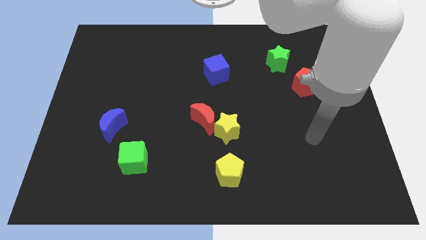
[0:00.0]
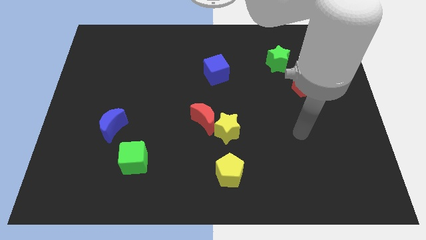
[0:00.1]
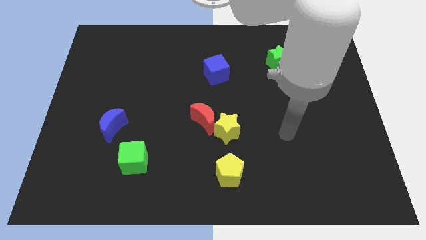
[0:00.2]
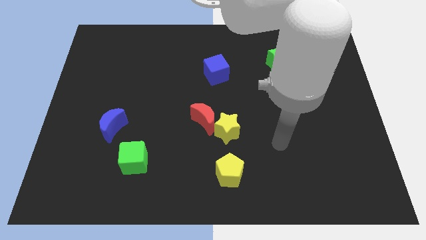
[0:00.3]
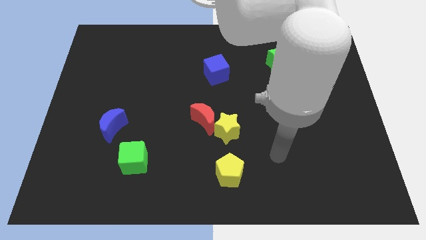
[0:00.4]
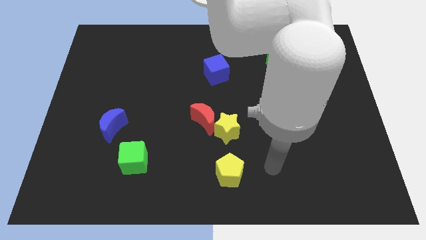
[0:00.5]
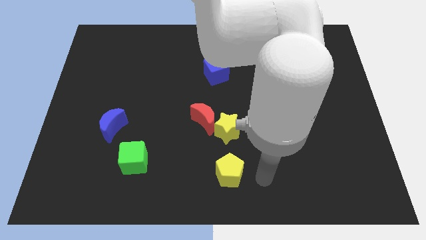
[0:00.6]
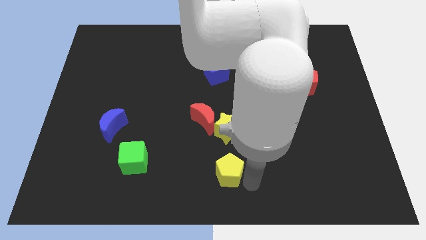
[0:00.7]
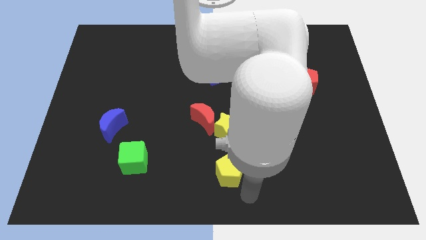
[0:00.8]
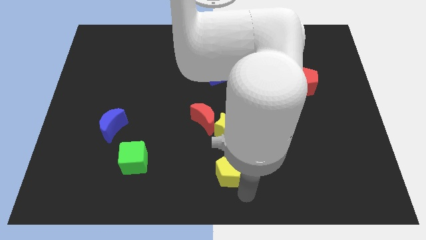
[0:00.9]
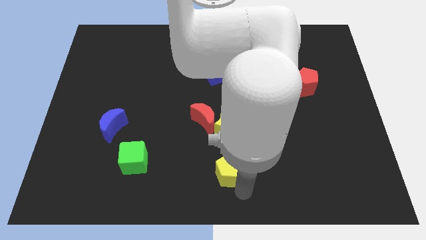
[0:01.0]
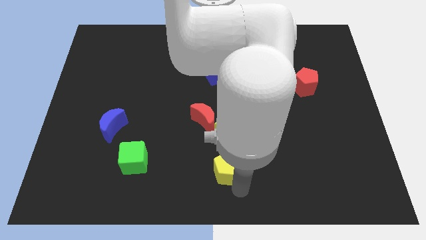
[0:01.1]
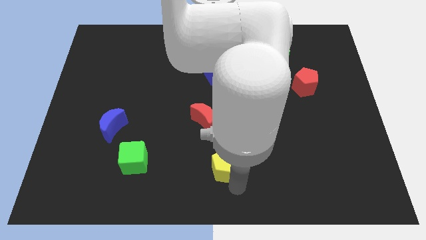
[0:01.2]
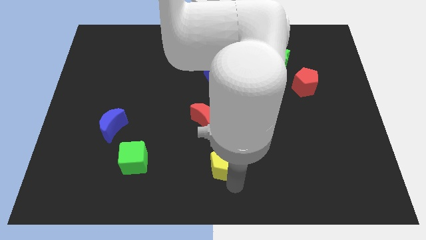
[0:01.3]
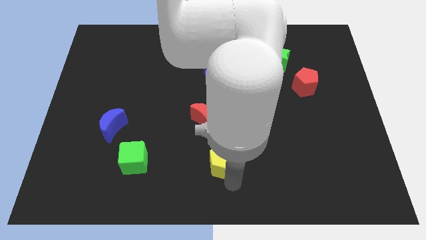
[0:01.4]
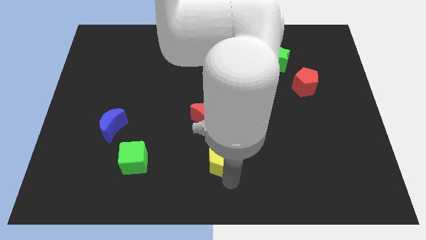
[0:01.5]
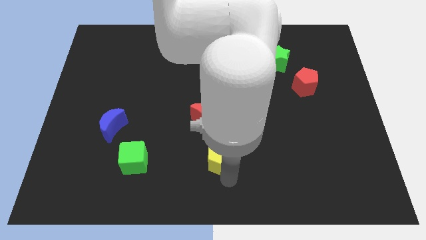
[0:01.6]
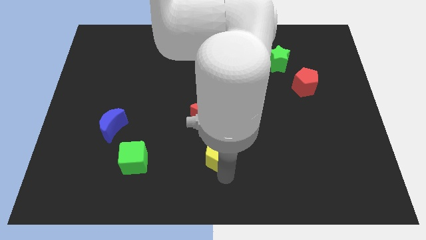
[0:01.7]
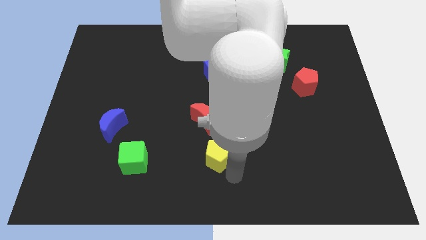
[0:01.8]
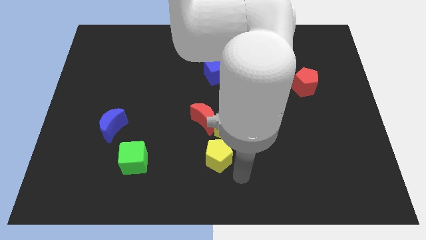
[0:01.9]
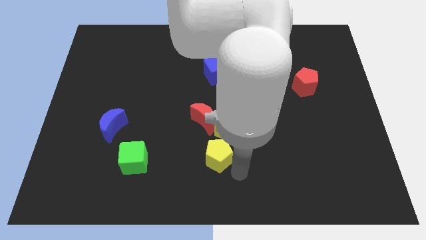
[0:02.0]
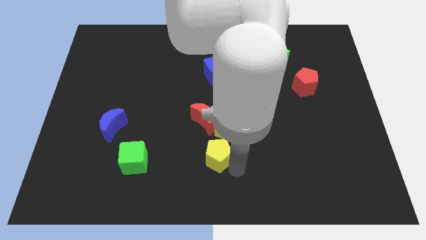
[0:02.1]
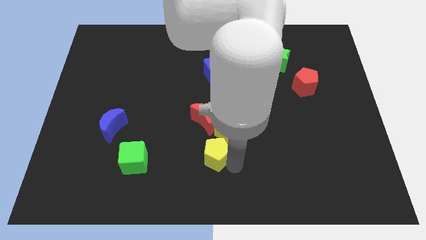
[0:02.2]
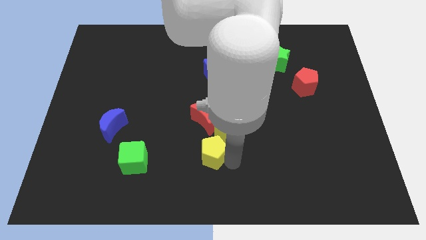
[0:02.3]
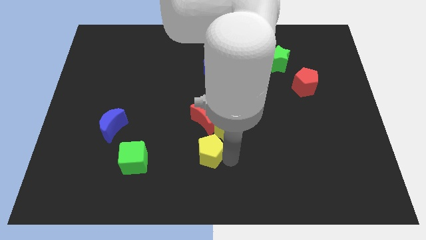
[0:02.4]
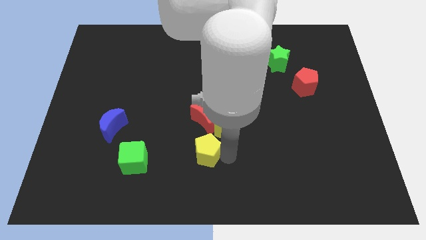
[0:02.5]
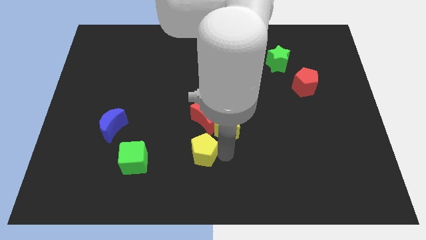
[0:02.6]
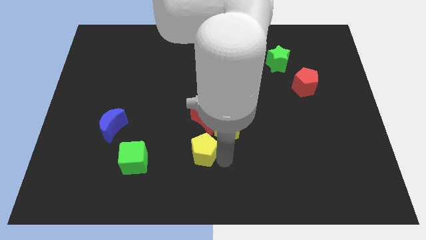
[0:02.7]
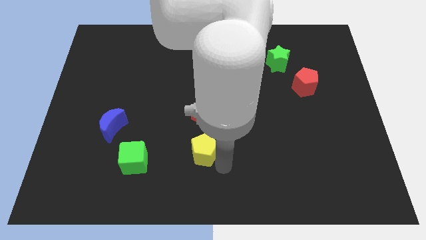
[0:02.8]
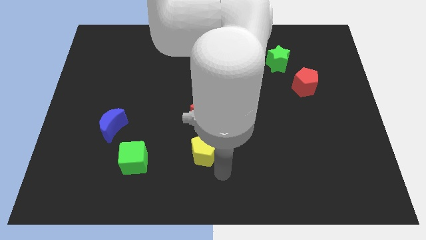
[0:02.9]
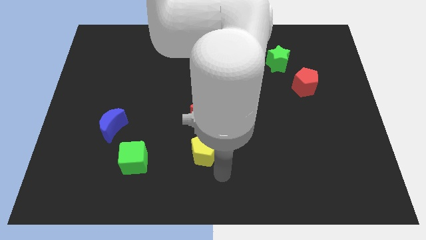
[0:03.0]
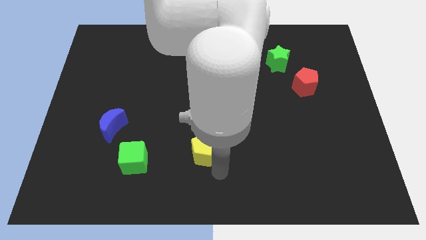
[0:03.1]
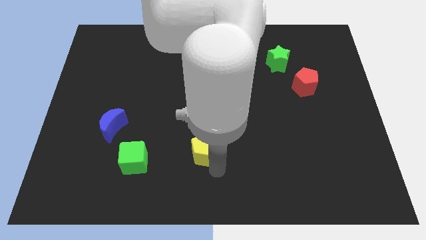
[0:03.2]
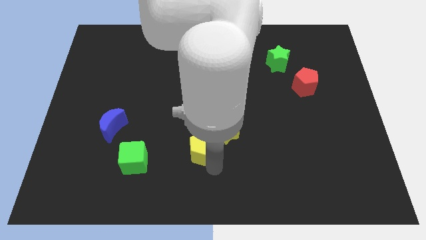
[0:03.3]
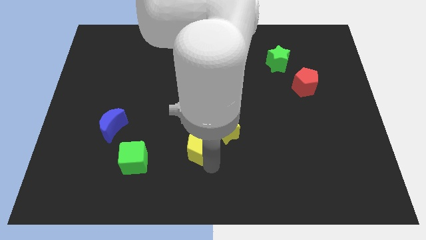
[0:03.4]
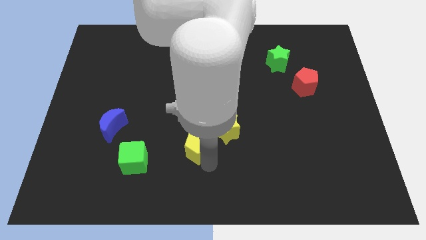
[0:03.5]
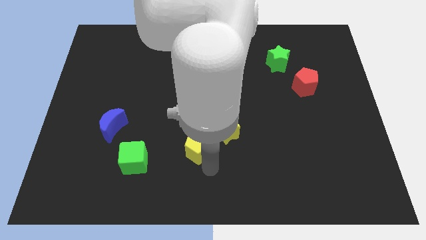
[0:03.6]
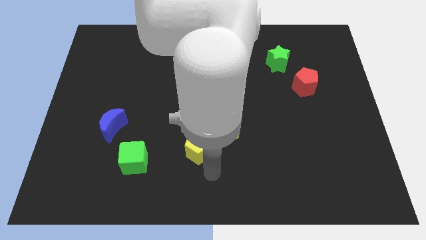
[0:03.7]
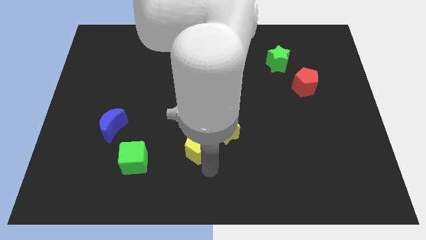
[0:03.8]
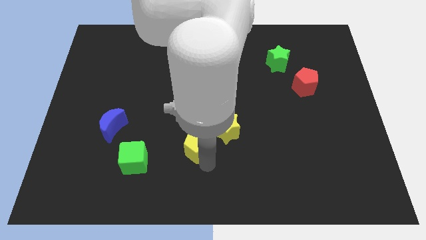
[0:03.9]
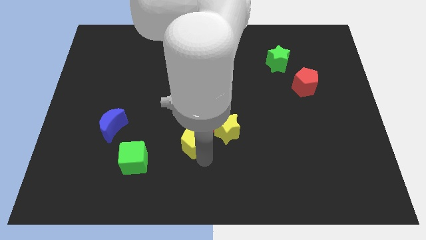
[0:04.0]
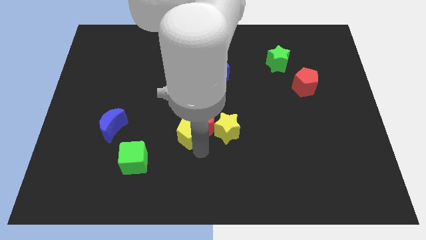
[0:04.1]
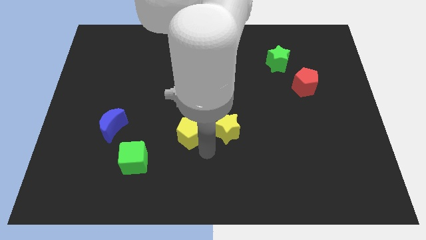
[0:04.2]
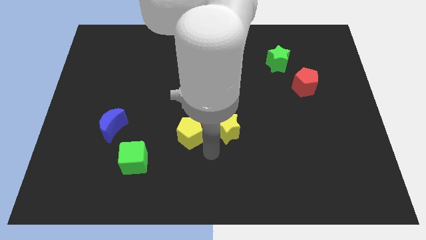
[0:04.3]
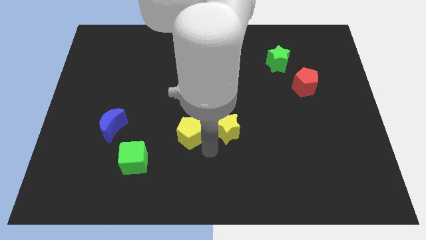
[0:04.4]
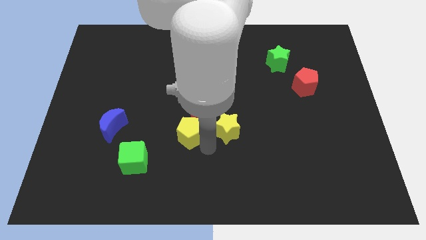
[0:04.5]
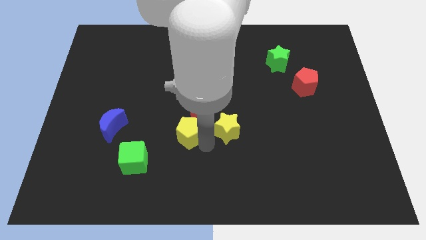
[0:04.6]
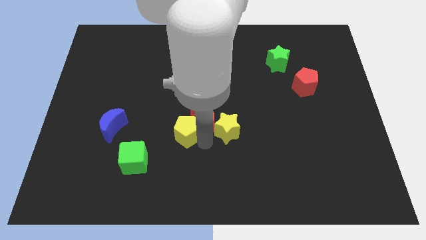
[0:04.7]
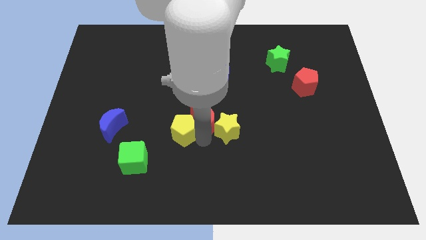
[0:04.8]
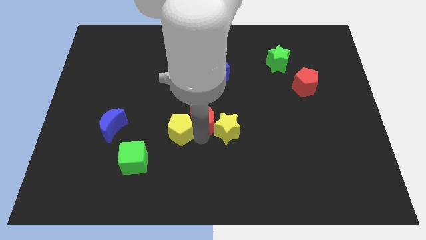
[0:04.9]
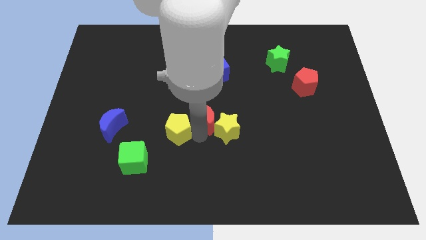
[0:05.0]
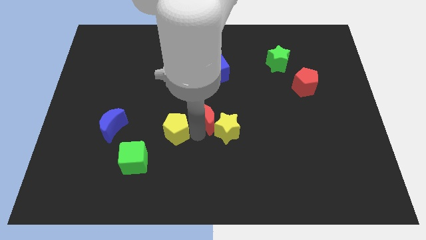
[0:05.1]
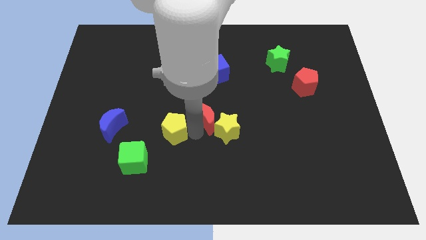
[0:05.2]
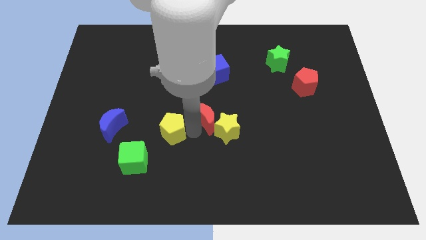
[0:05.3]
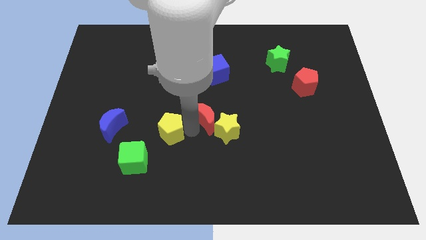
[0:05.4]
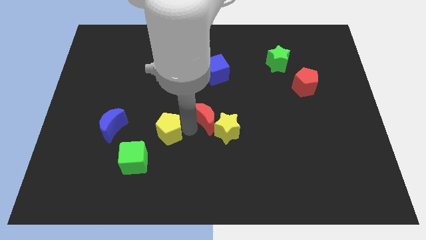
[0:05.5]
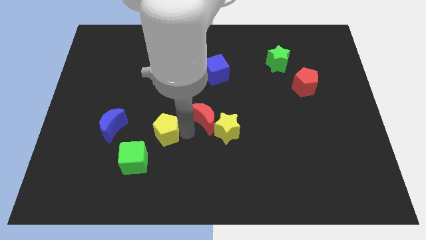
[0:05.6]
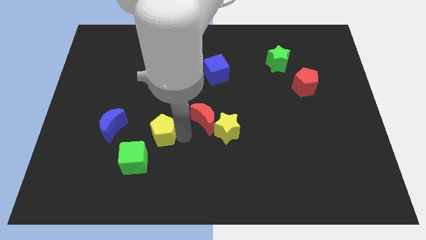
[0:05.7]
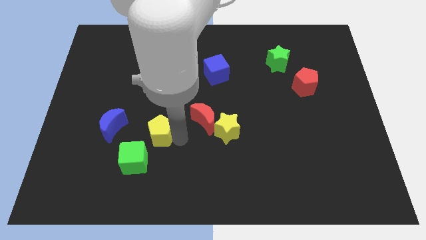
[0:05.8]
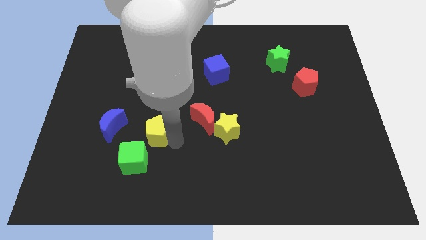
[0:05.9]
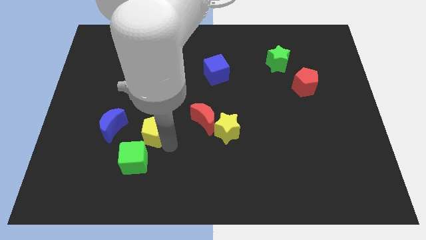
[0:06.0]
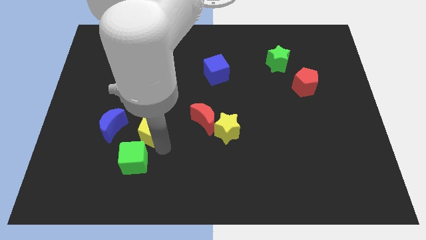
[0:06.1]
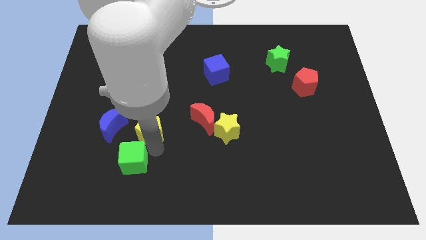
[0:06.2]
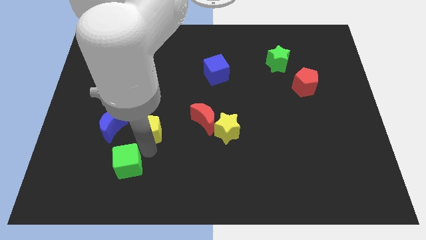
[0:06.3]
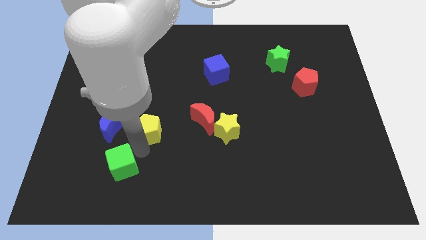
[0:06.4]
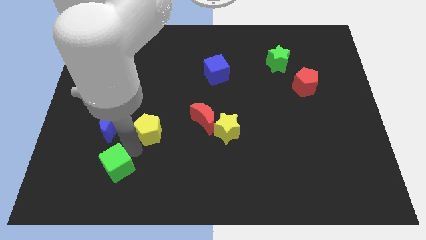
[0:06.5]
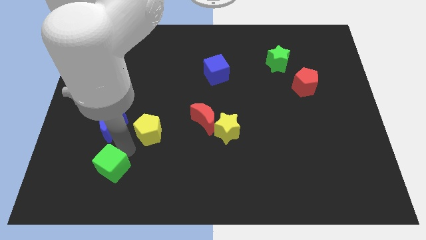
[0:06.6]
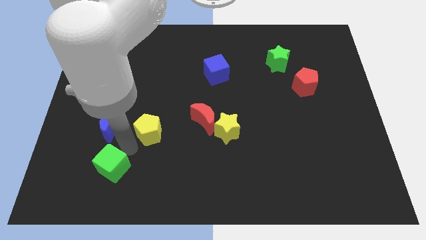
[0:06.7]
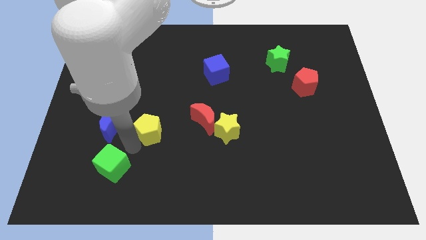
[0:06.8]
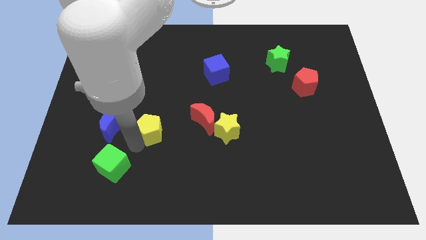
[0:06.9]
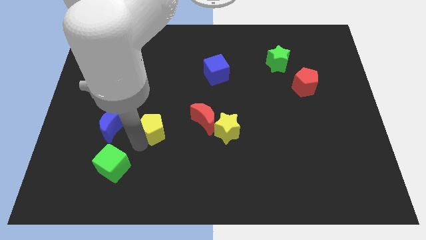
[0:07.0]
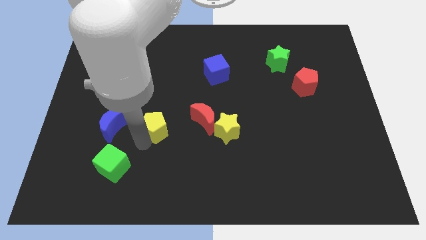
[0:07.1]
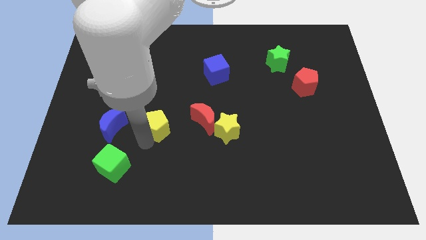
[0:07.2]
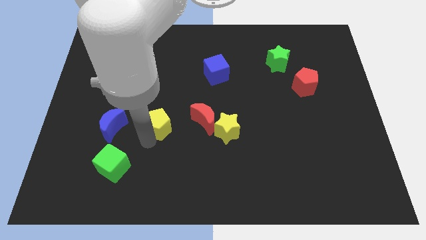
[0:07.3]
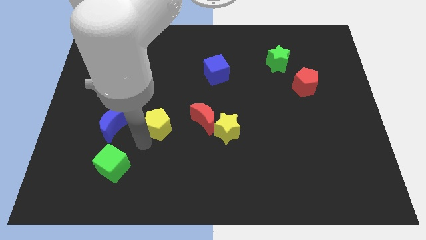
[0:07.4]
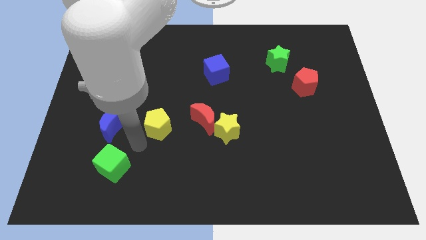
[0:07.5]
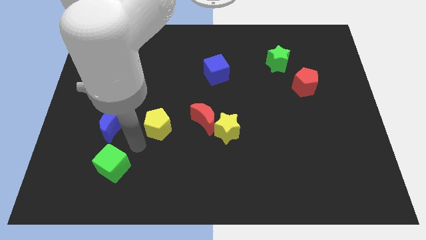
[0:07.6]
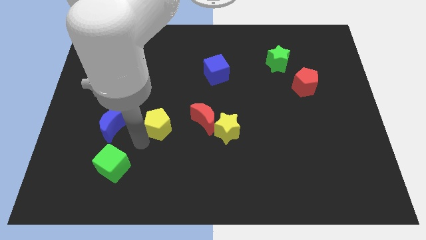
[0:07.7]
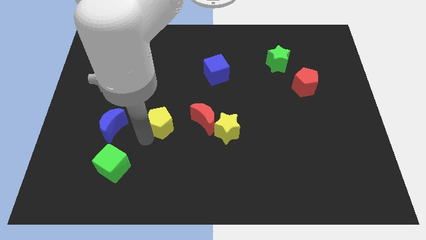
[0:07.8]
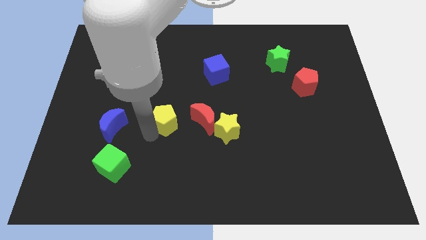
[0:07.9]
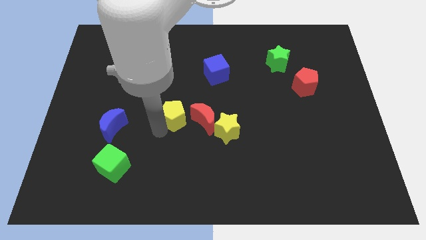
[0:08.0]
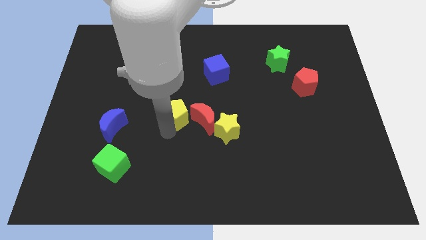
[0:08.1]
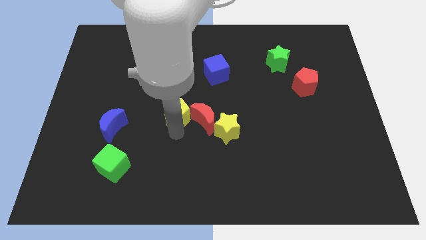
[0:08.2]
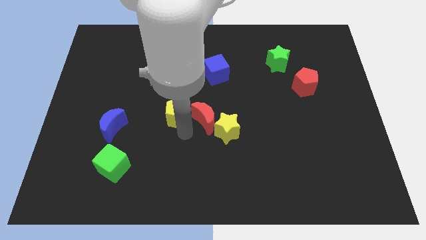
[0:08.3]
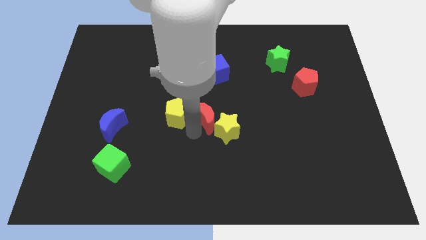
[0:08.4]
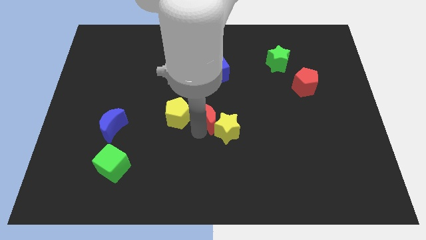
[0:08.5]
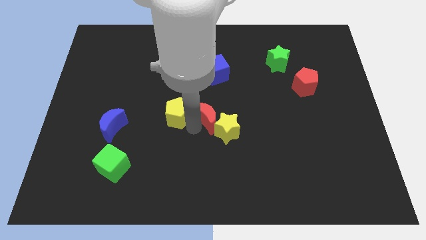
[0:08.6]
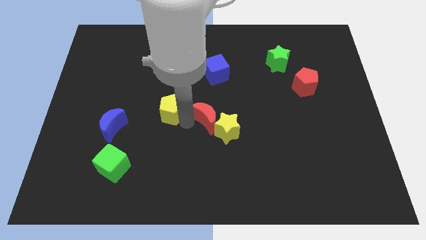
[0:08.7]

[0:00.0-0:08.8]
push the yellow pentagon upwards and then left
